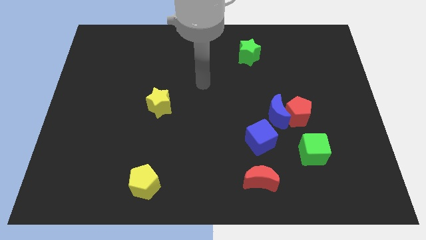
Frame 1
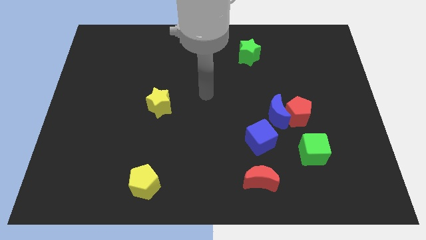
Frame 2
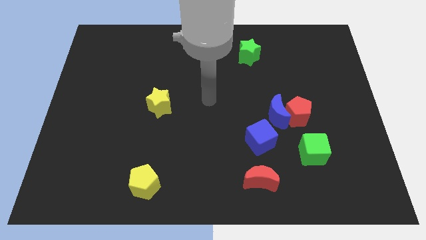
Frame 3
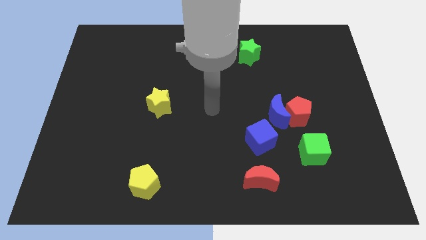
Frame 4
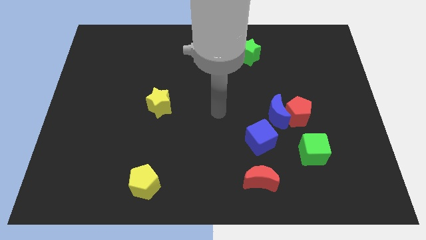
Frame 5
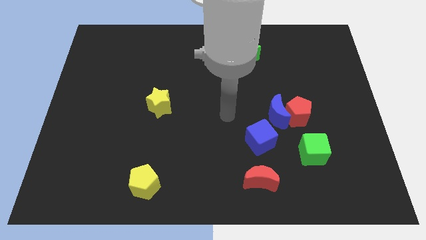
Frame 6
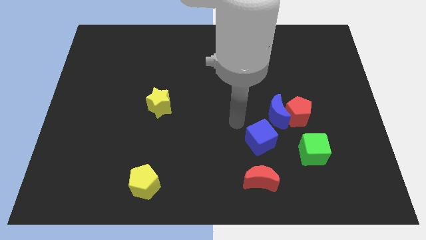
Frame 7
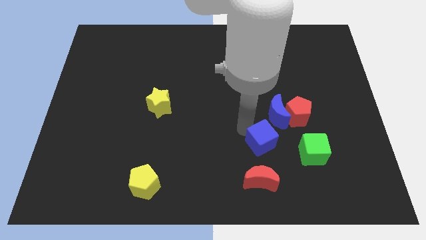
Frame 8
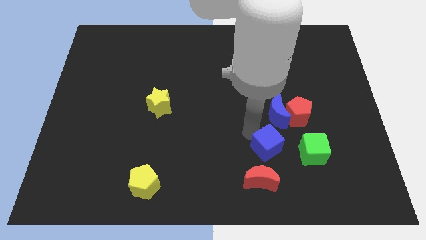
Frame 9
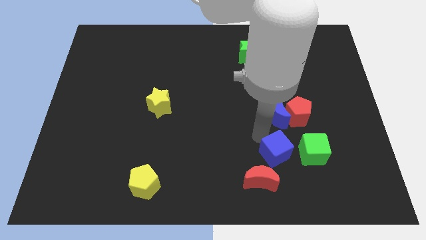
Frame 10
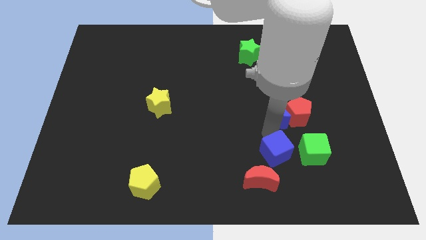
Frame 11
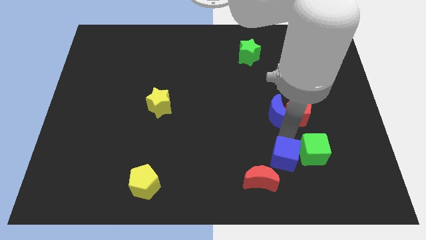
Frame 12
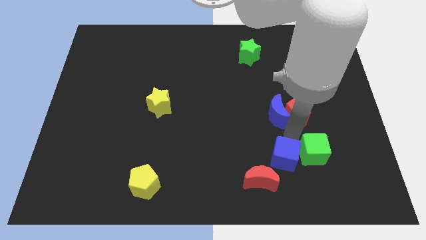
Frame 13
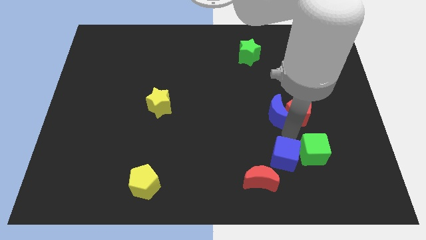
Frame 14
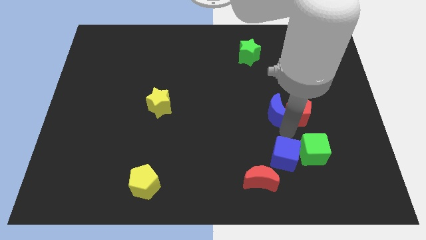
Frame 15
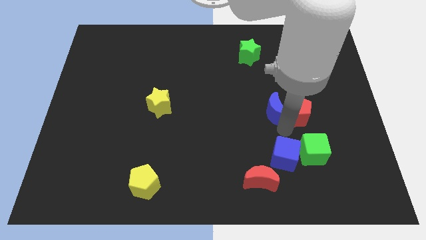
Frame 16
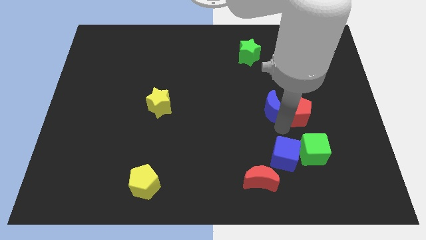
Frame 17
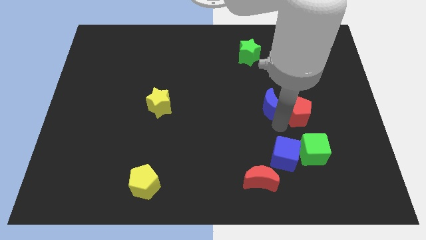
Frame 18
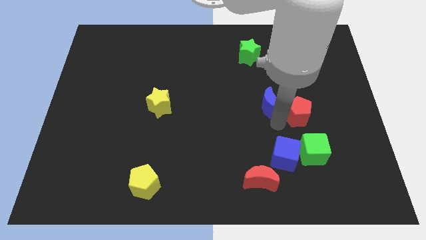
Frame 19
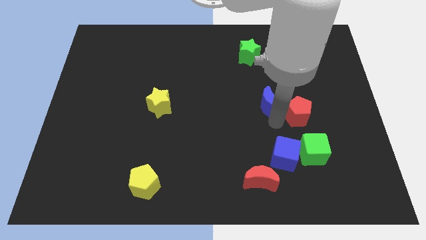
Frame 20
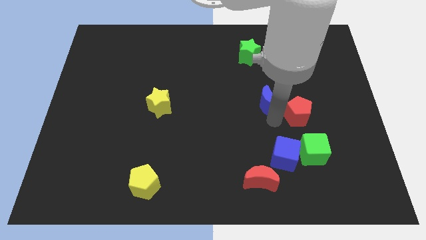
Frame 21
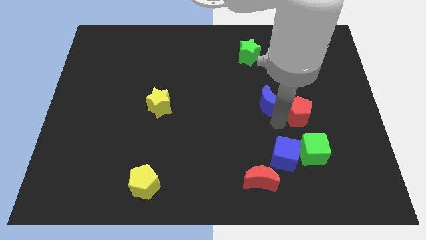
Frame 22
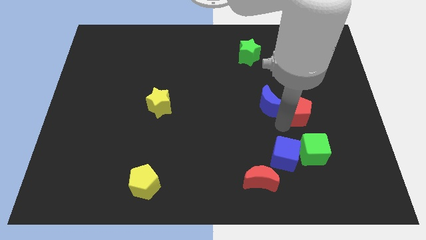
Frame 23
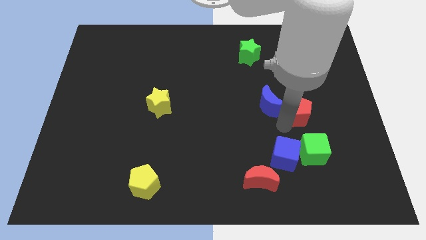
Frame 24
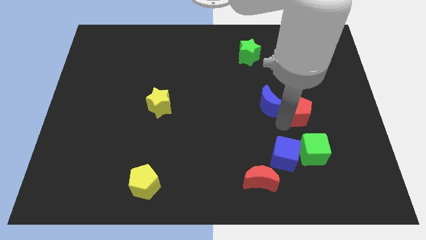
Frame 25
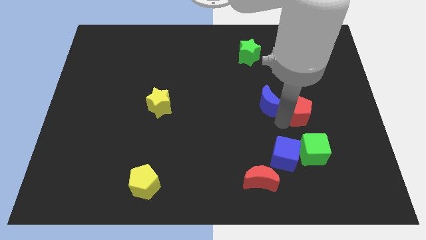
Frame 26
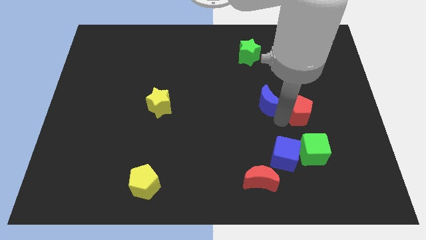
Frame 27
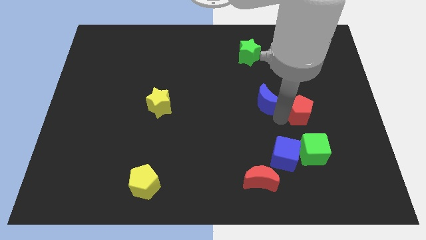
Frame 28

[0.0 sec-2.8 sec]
move the blue moon away from the red pentagon and blue cube

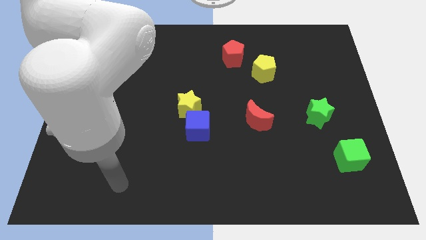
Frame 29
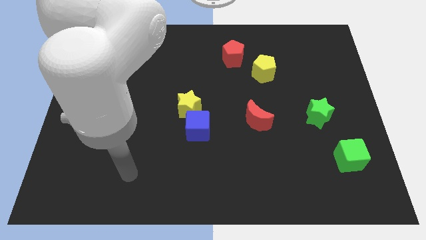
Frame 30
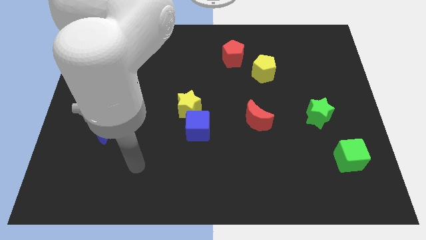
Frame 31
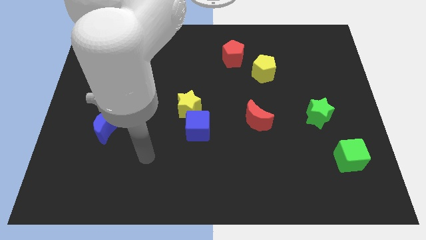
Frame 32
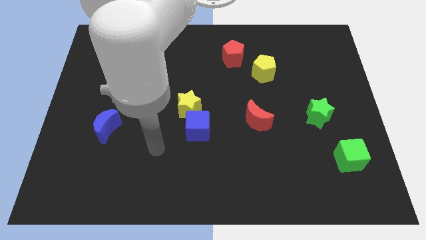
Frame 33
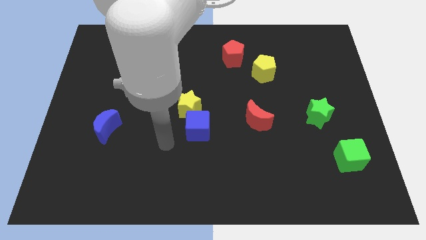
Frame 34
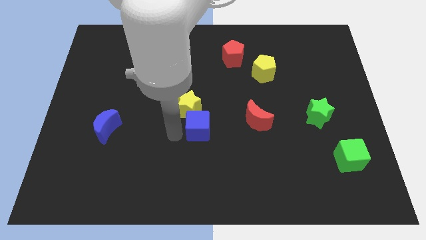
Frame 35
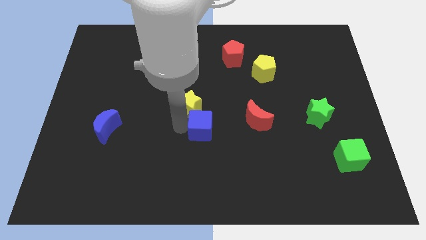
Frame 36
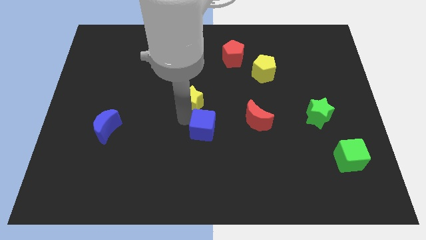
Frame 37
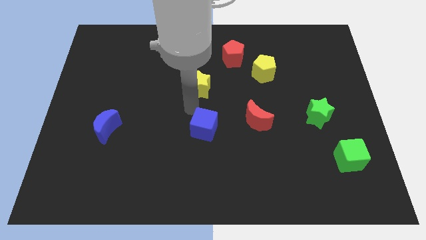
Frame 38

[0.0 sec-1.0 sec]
move the blue cube away from the yellow star

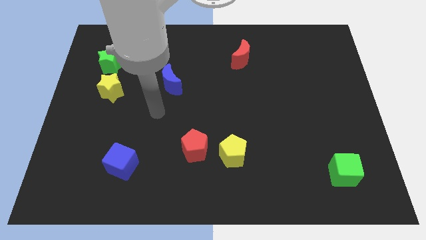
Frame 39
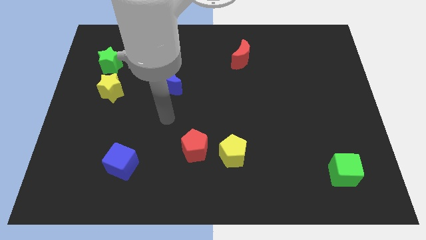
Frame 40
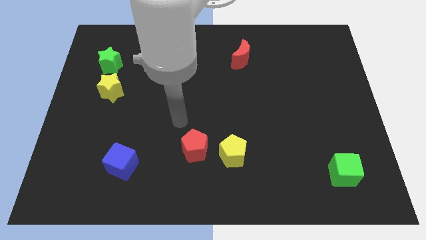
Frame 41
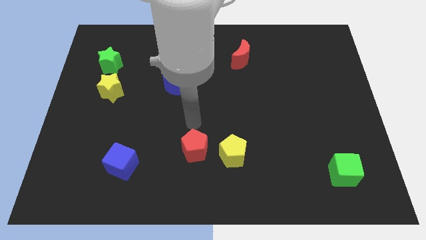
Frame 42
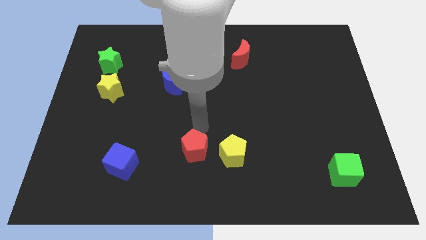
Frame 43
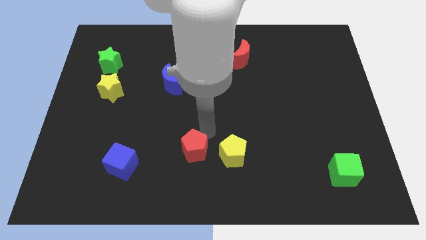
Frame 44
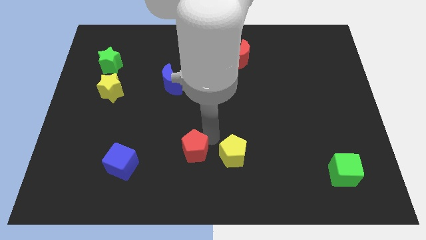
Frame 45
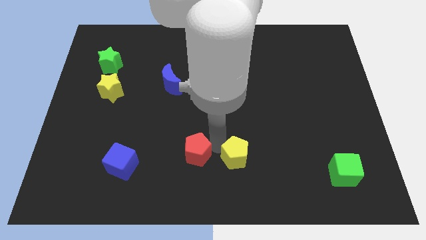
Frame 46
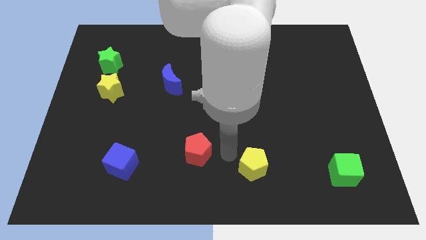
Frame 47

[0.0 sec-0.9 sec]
move the red pentagon away from the yellow pentagon

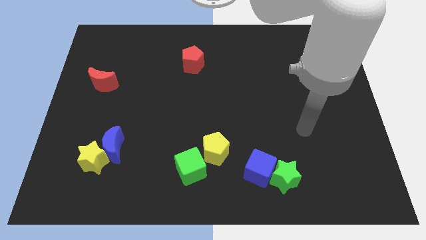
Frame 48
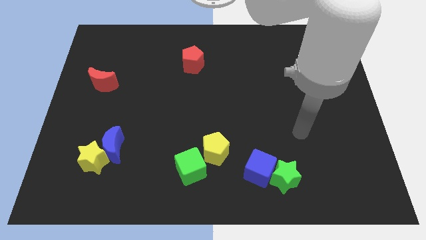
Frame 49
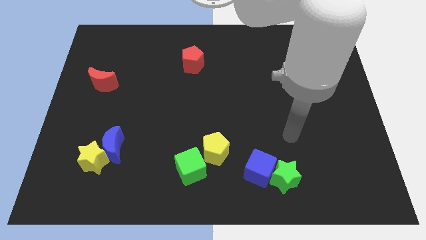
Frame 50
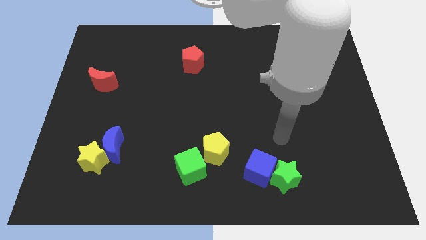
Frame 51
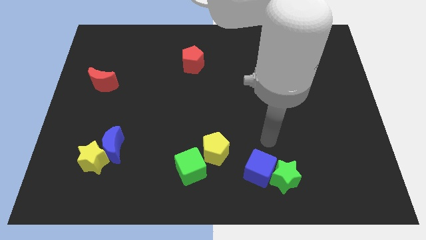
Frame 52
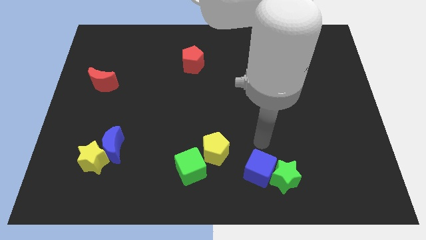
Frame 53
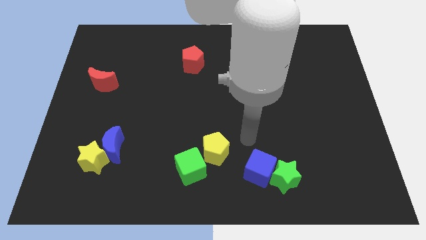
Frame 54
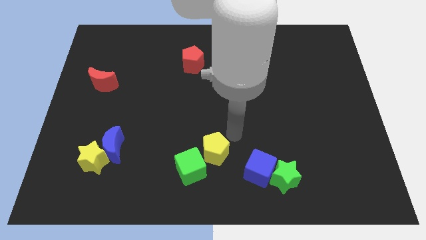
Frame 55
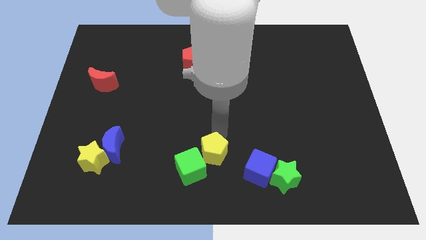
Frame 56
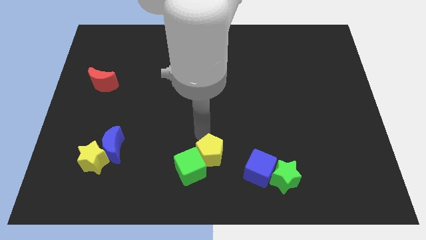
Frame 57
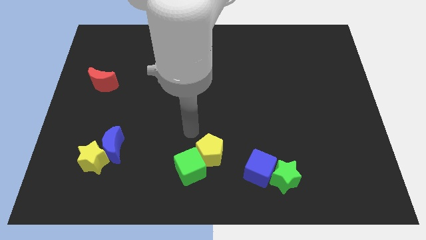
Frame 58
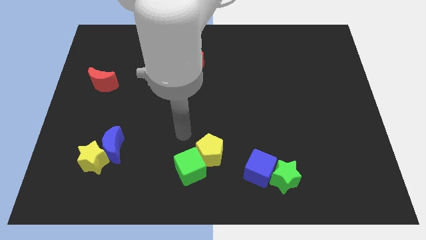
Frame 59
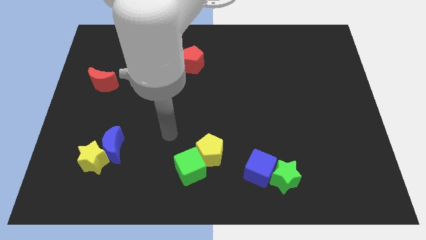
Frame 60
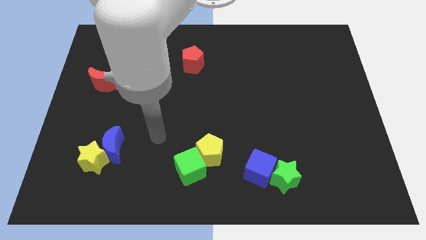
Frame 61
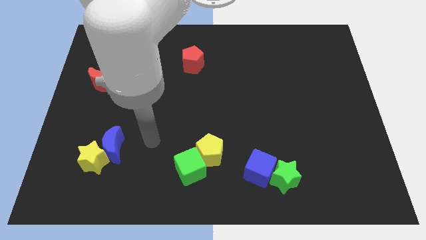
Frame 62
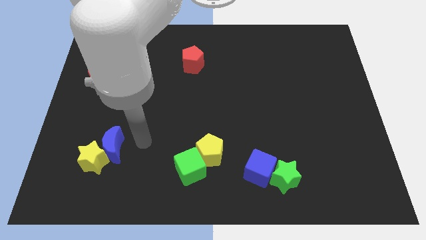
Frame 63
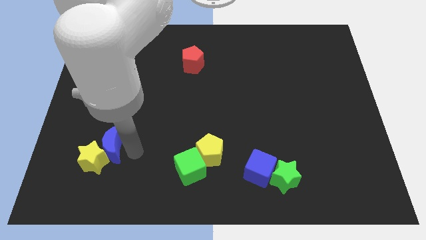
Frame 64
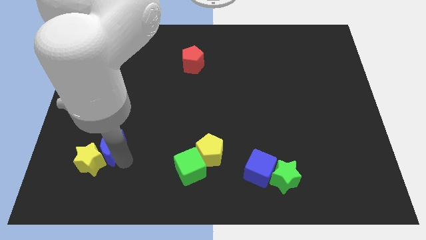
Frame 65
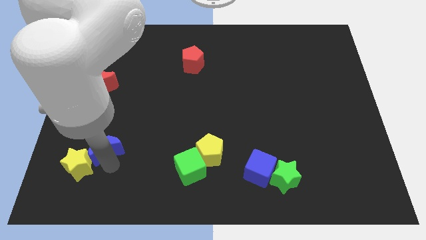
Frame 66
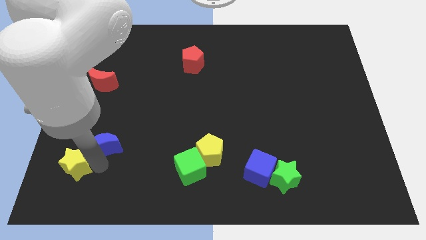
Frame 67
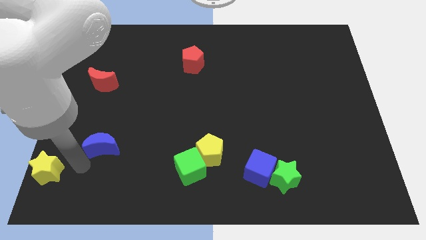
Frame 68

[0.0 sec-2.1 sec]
pull the blue moon apart from the yellow star

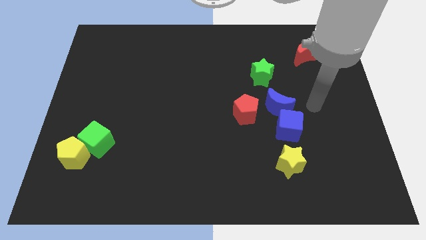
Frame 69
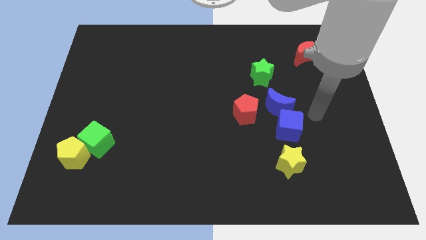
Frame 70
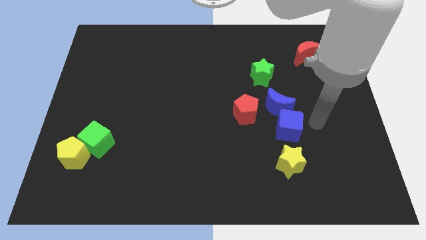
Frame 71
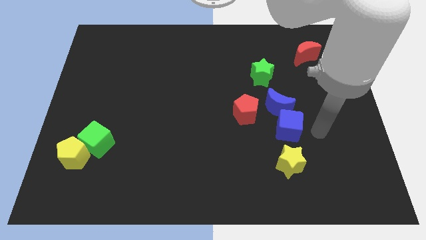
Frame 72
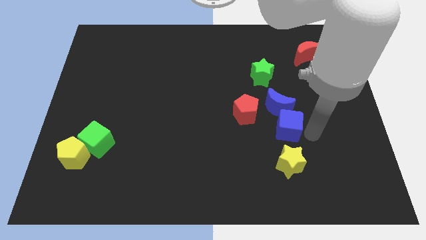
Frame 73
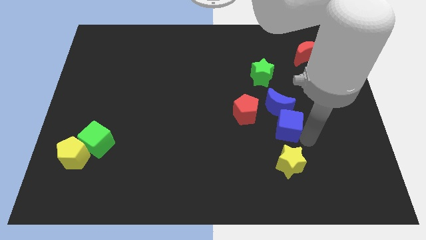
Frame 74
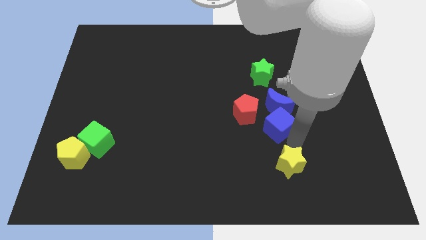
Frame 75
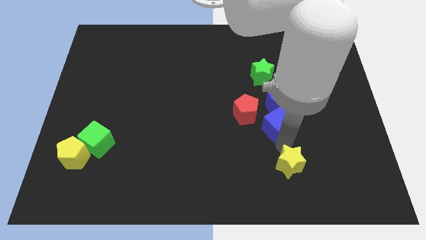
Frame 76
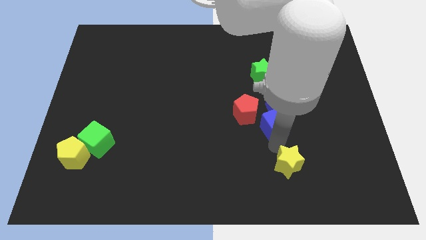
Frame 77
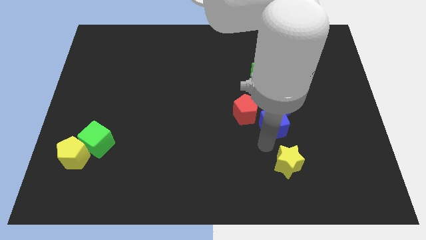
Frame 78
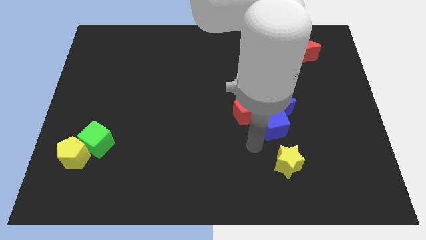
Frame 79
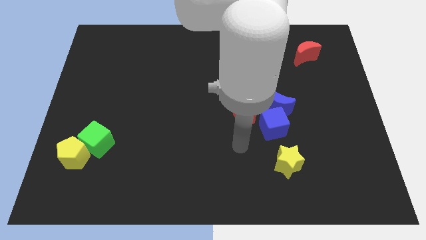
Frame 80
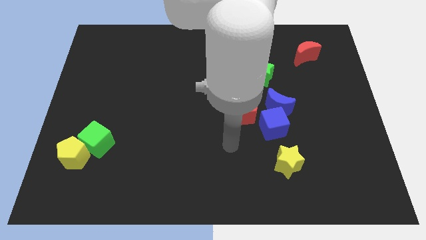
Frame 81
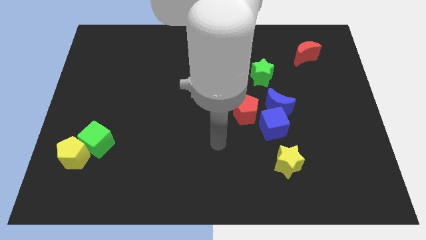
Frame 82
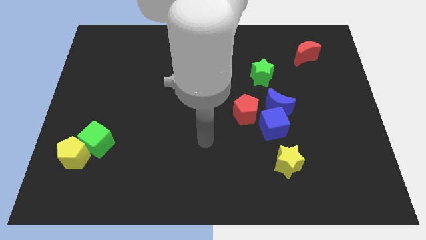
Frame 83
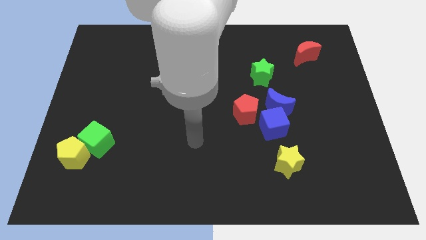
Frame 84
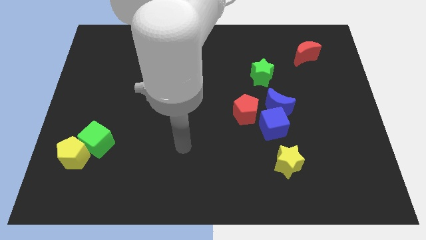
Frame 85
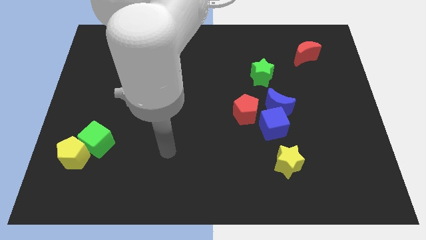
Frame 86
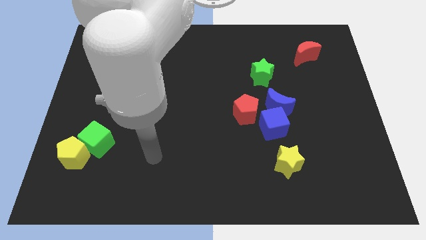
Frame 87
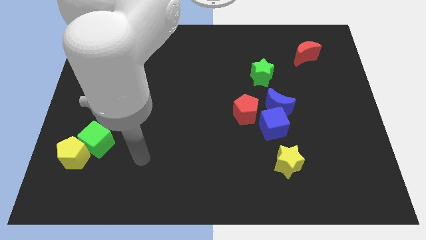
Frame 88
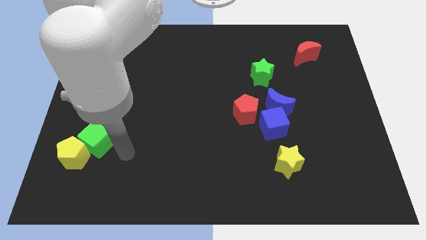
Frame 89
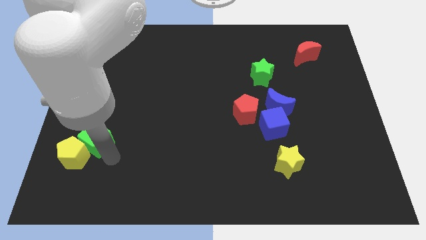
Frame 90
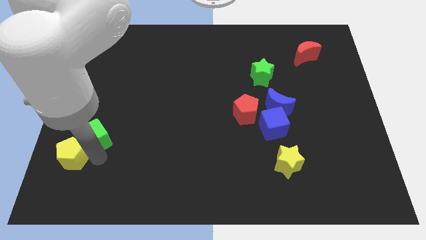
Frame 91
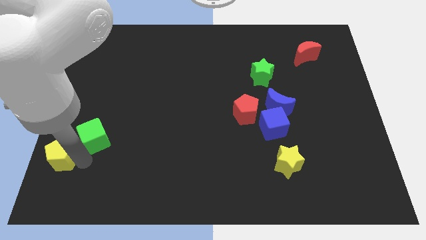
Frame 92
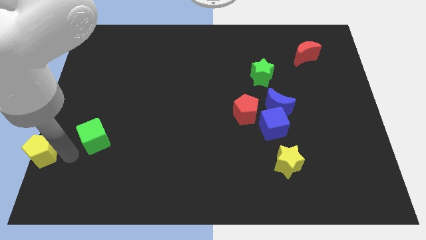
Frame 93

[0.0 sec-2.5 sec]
pull the green cube apart from the yellow pentagon
